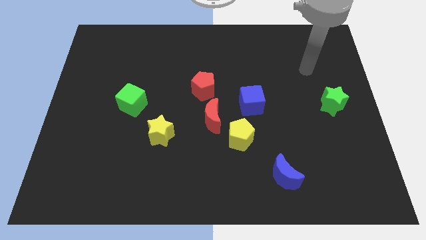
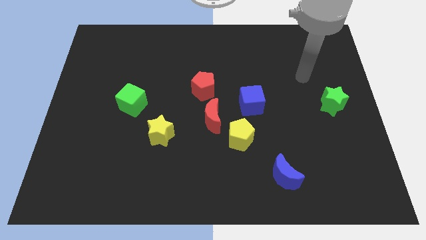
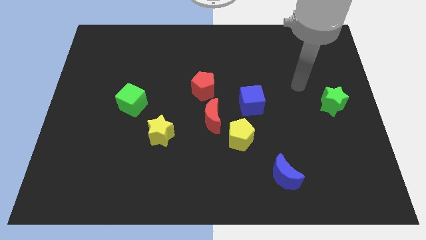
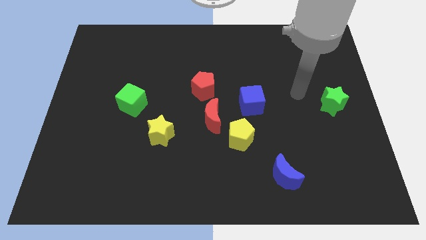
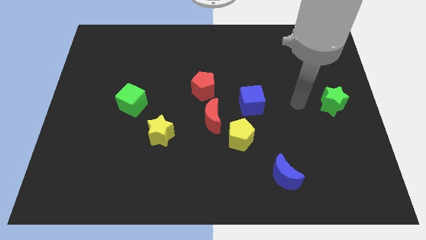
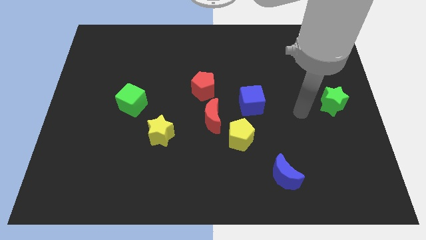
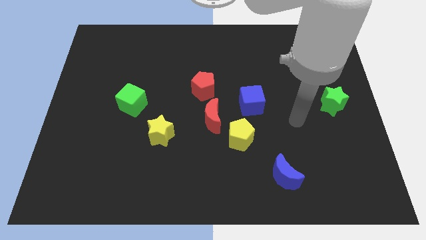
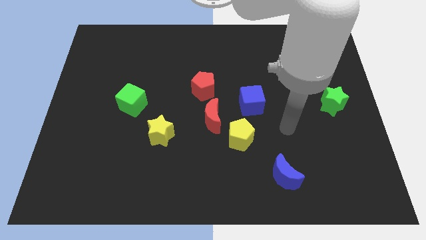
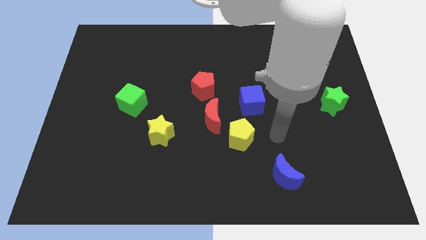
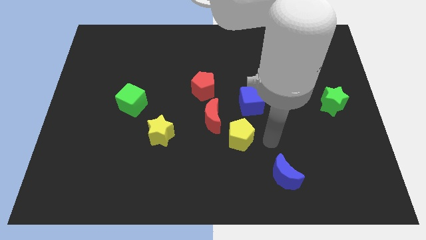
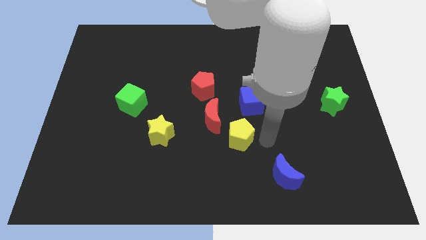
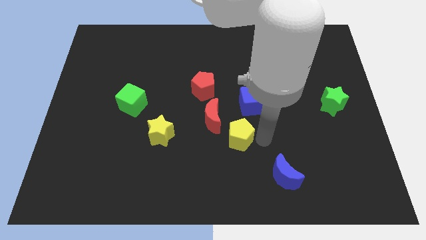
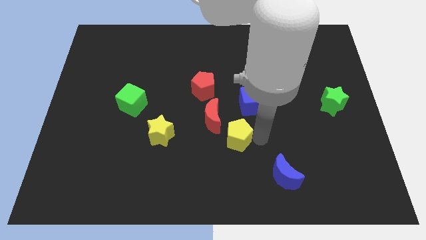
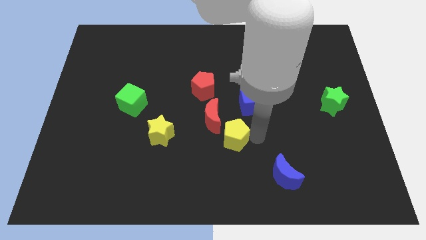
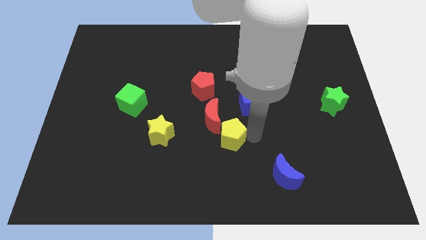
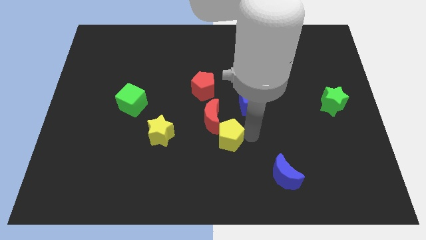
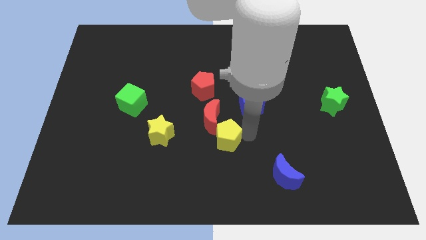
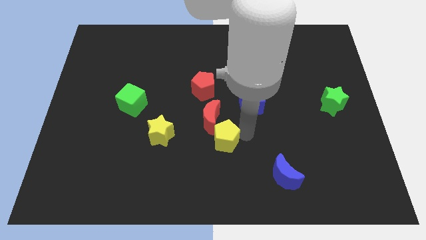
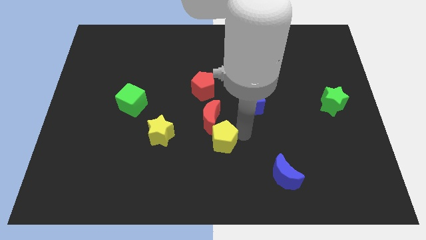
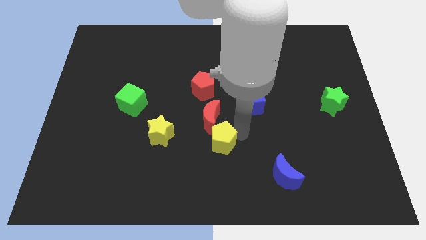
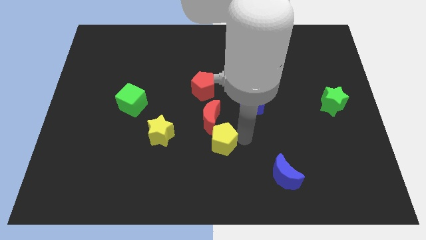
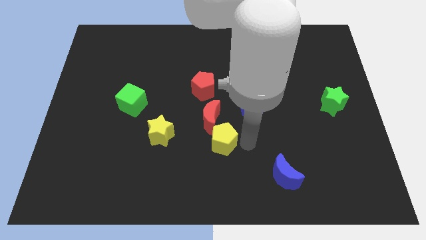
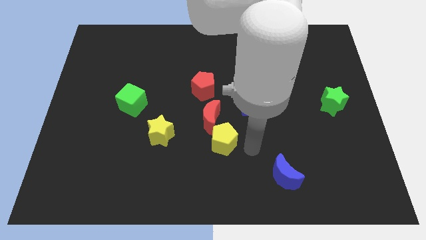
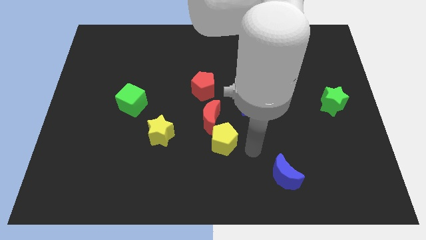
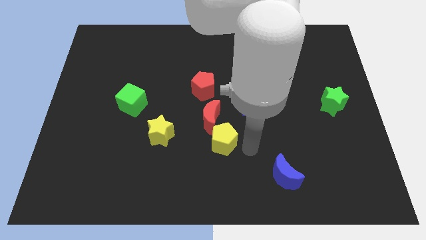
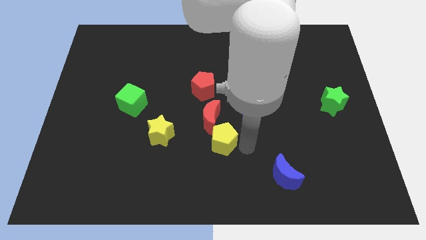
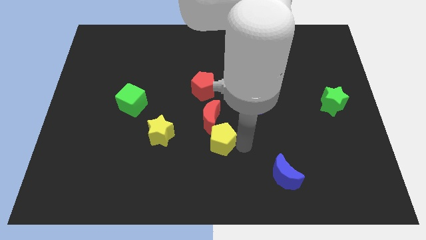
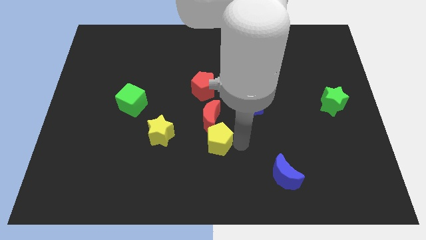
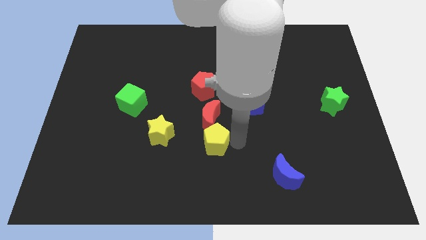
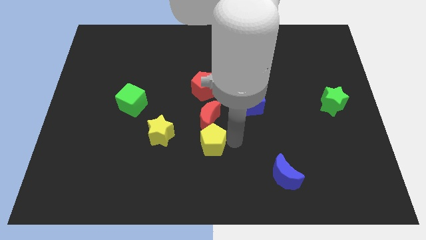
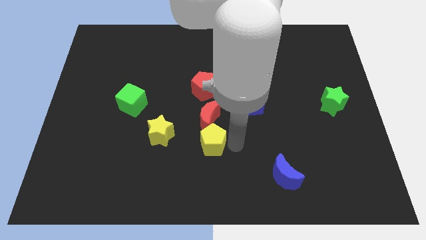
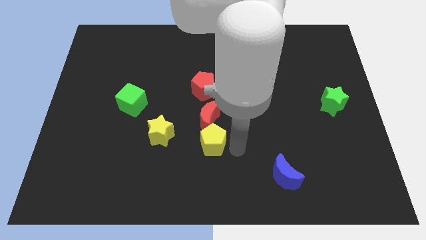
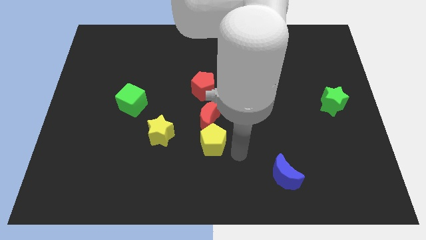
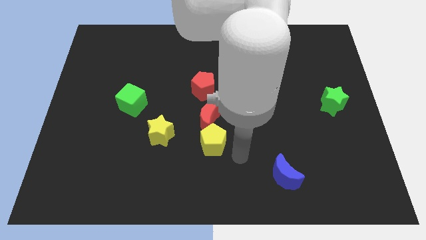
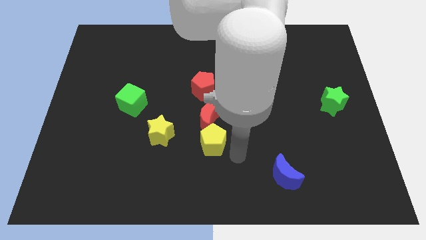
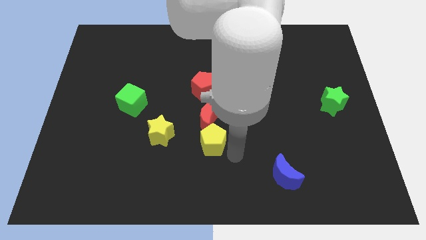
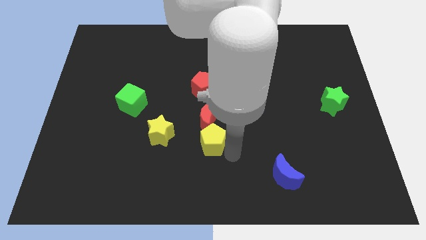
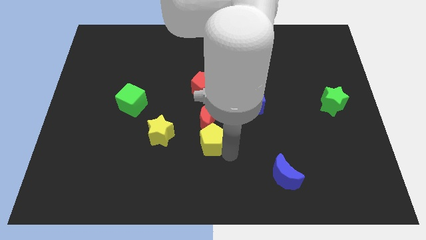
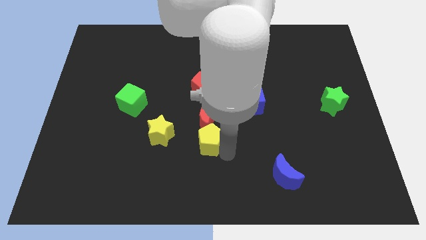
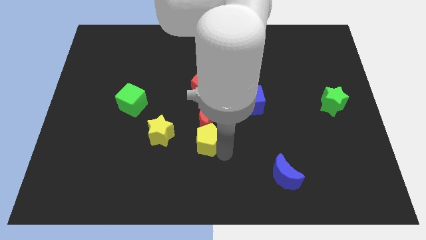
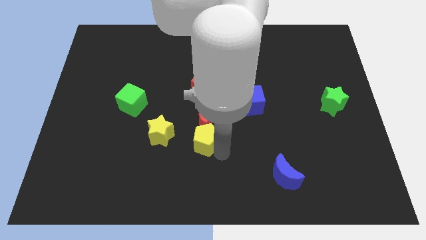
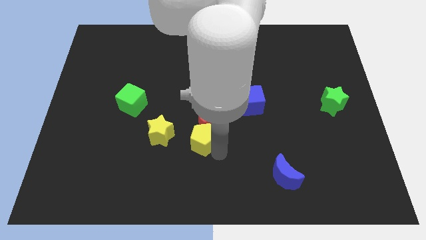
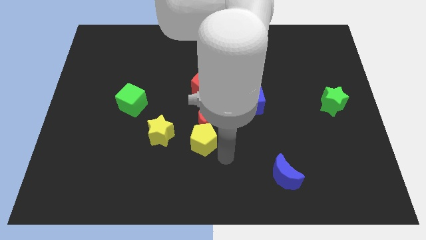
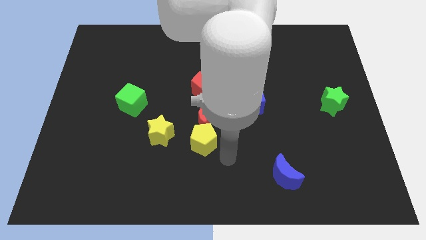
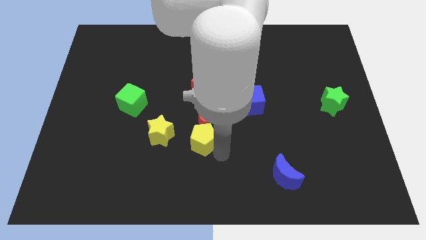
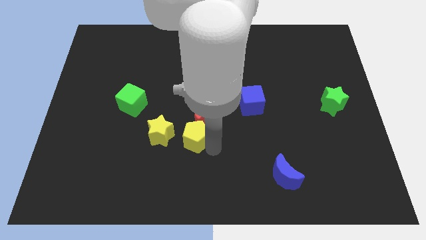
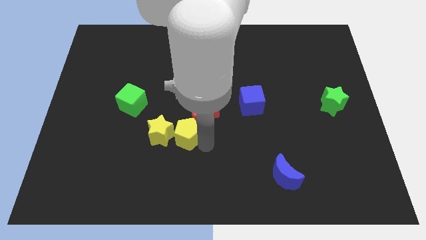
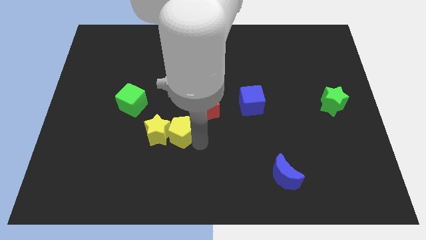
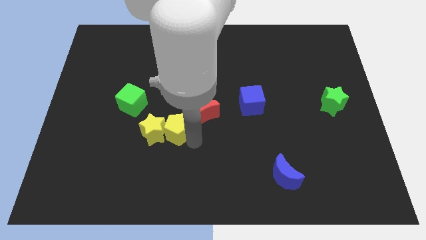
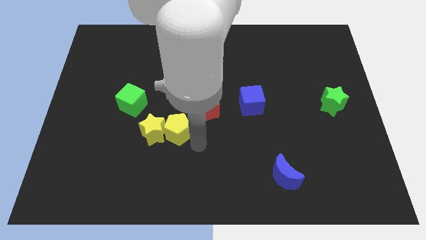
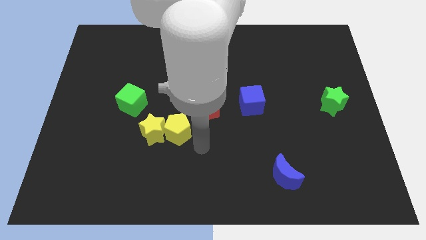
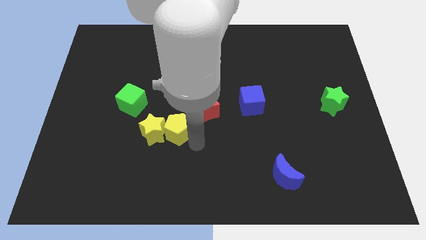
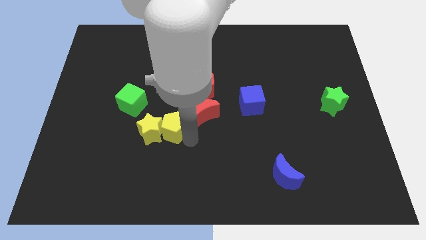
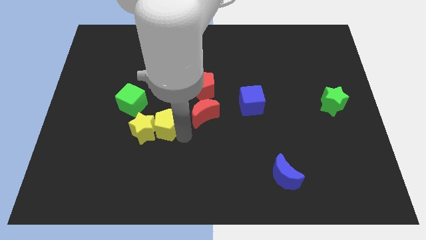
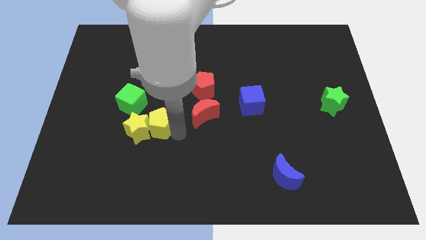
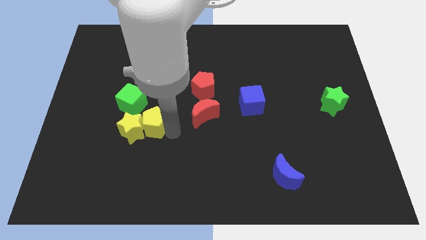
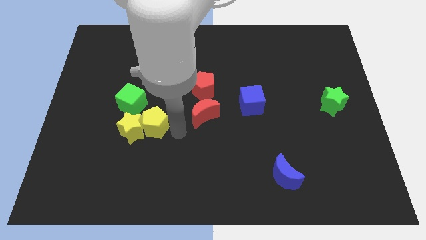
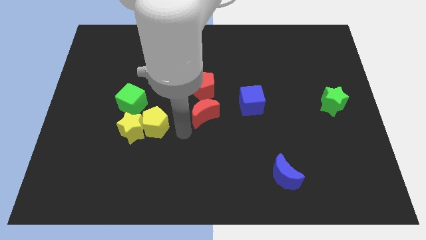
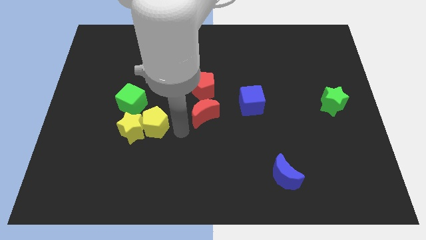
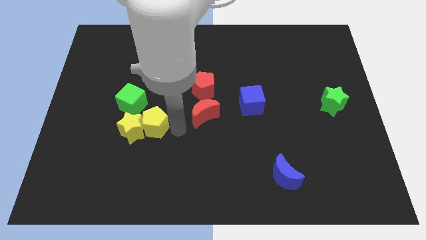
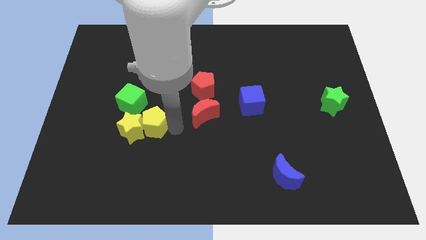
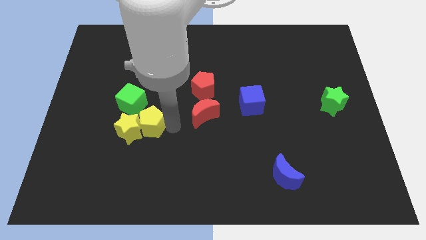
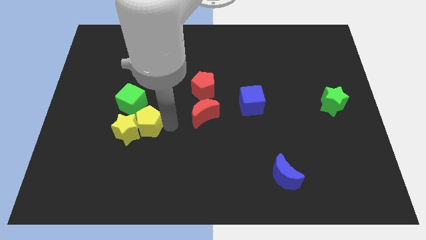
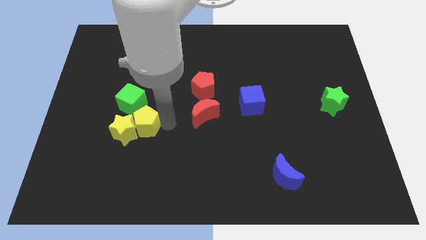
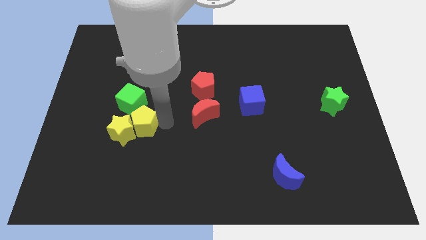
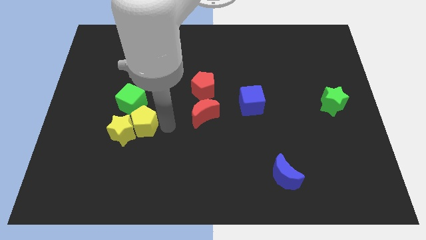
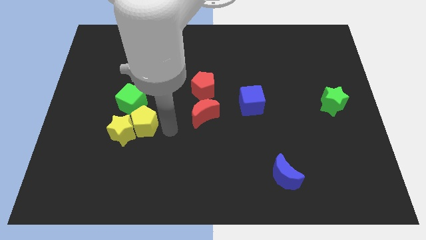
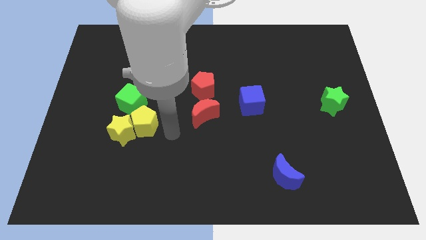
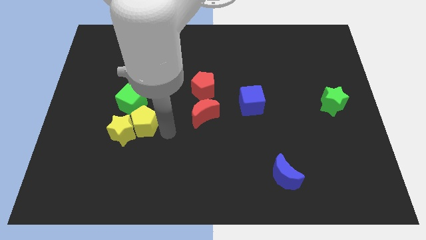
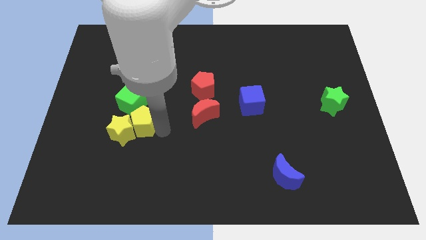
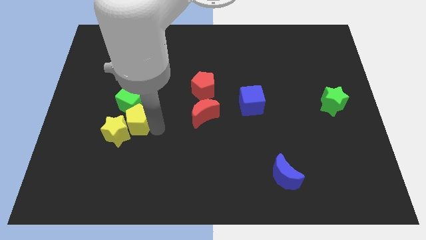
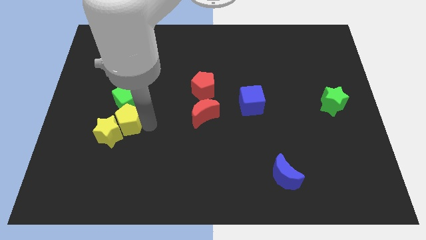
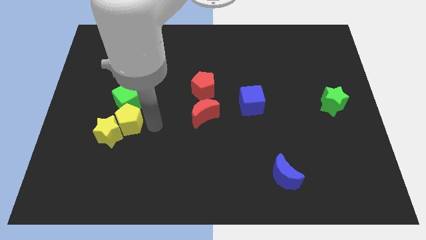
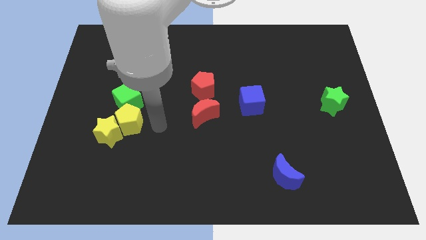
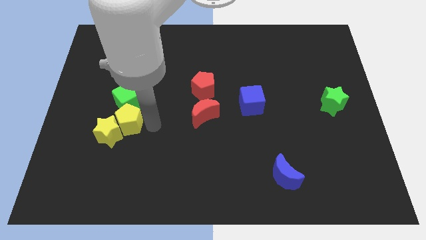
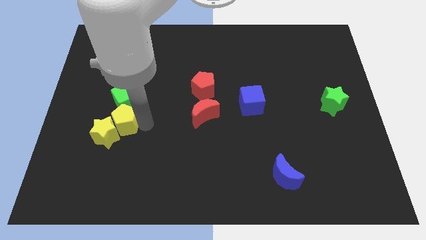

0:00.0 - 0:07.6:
slide the yellow pentagon to the bottom left of the green cube

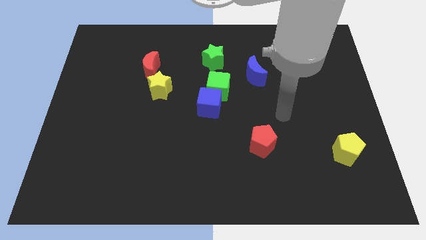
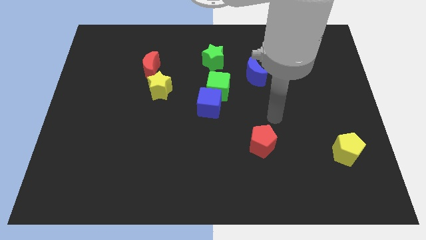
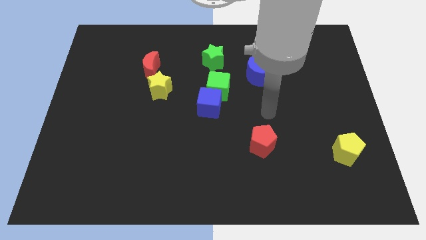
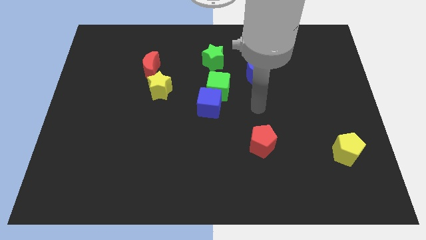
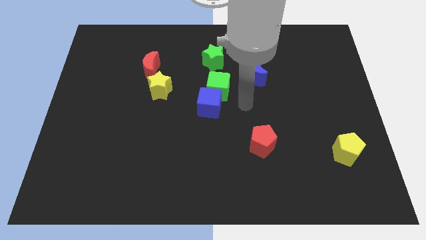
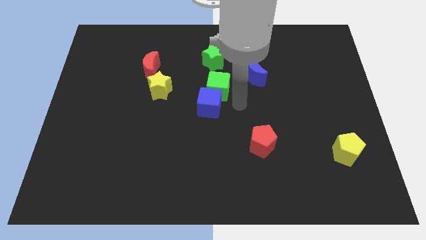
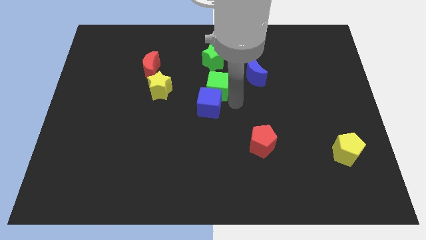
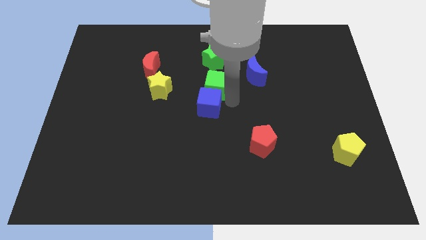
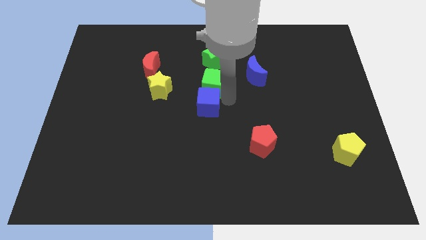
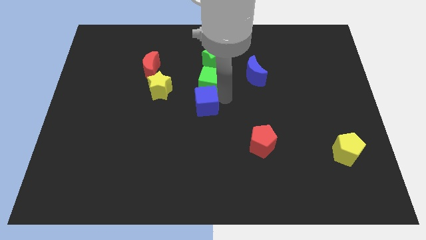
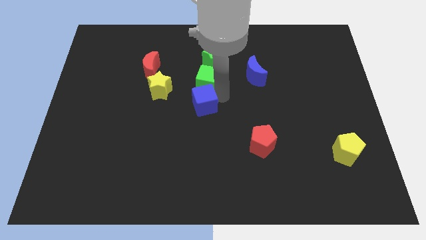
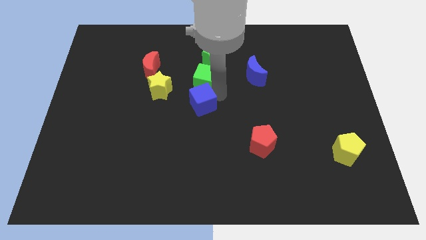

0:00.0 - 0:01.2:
slide the green cube right of the red moon
